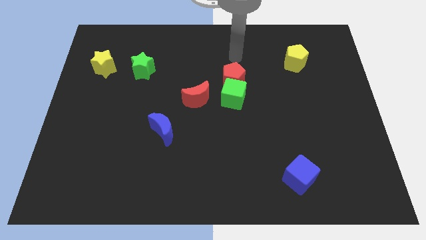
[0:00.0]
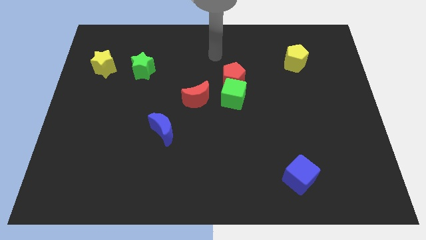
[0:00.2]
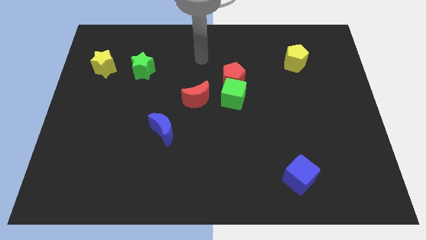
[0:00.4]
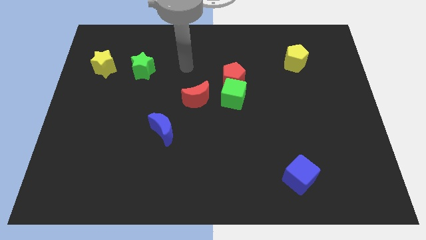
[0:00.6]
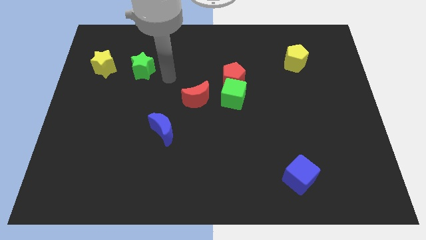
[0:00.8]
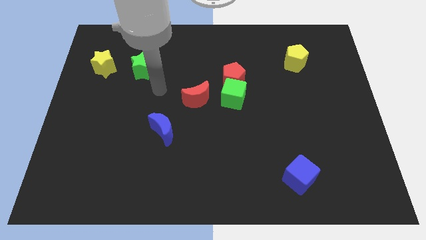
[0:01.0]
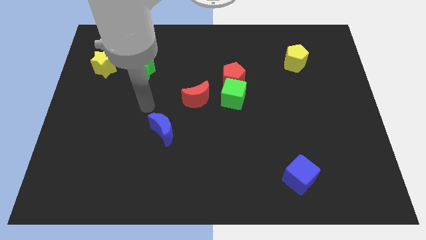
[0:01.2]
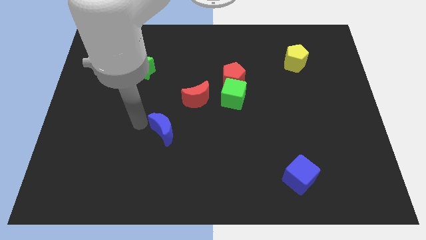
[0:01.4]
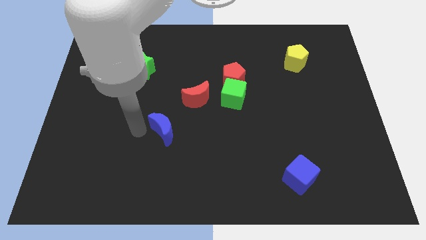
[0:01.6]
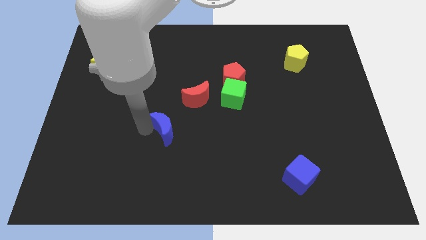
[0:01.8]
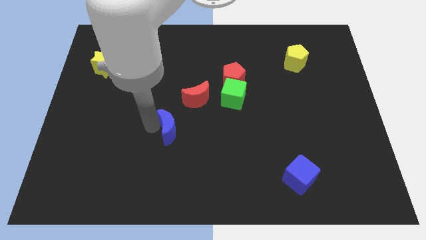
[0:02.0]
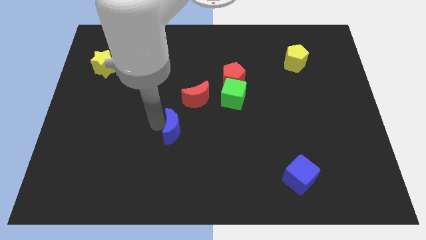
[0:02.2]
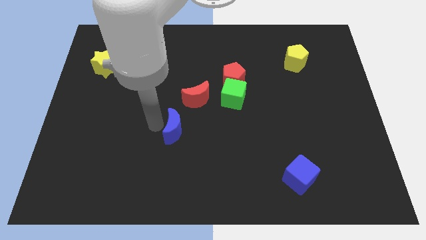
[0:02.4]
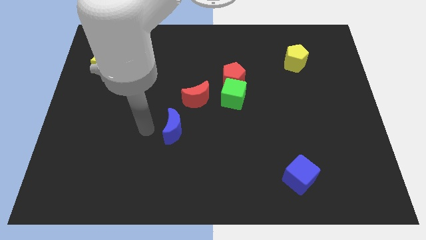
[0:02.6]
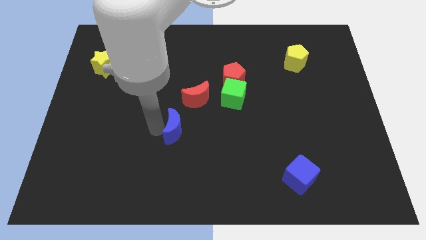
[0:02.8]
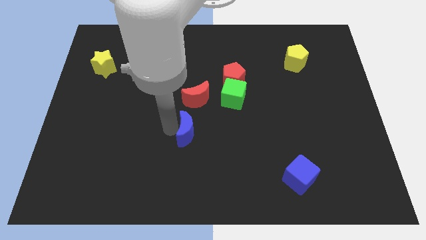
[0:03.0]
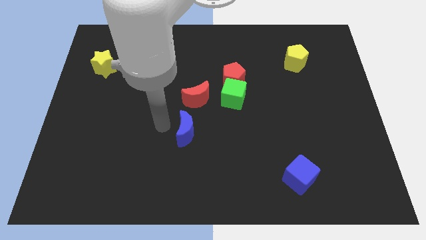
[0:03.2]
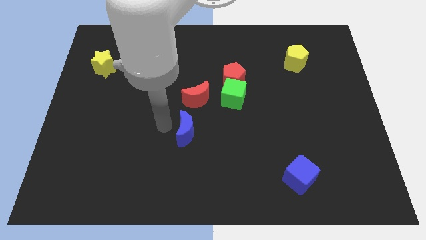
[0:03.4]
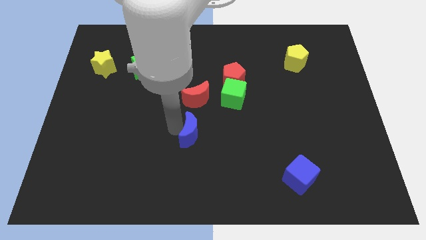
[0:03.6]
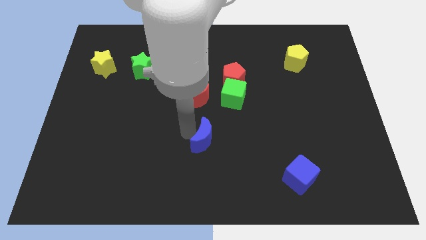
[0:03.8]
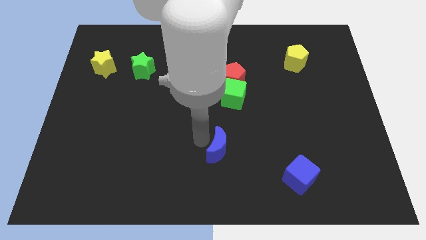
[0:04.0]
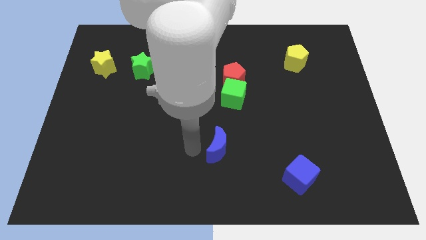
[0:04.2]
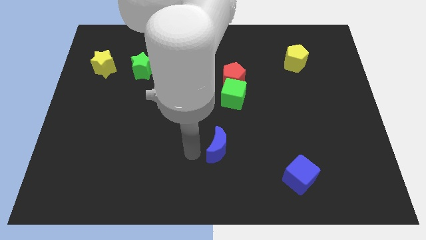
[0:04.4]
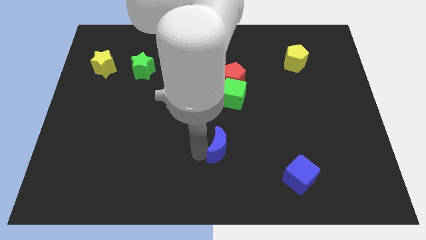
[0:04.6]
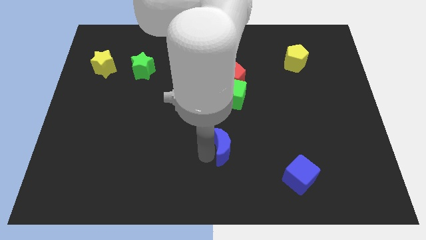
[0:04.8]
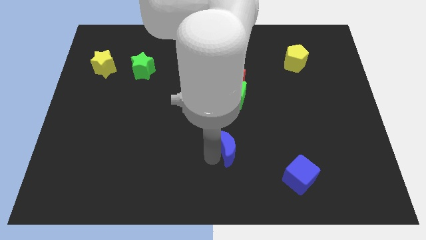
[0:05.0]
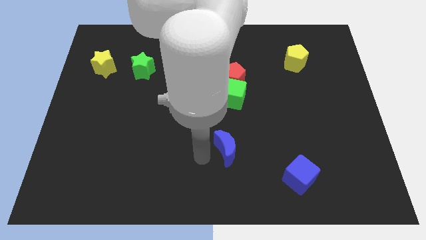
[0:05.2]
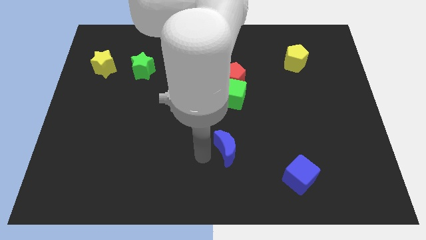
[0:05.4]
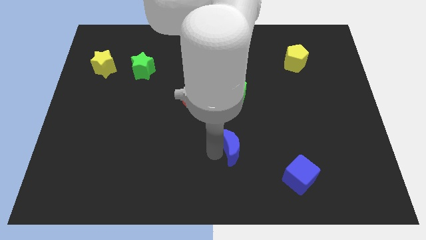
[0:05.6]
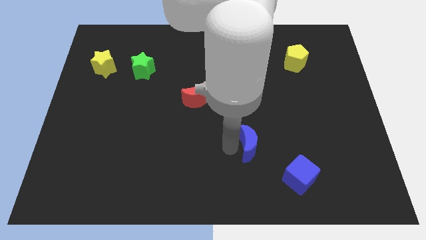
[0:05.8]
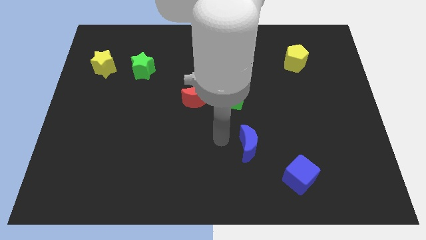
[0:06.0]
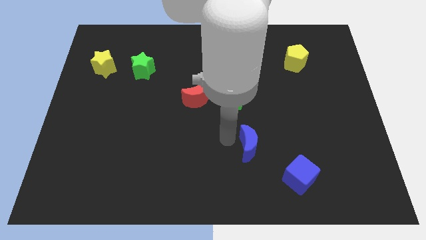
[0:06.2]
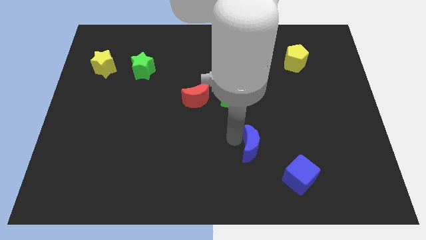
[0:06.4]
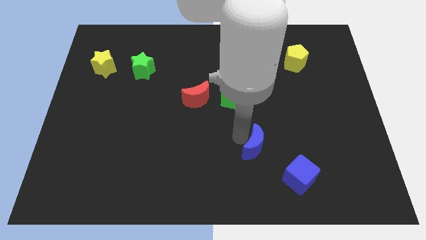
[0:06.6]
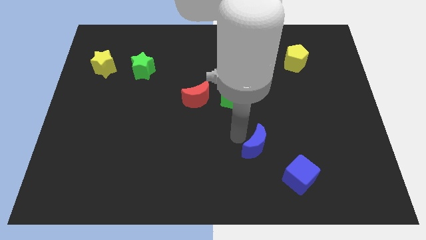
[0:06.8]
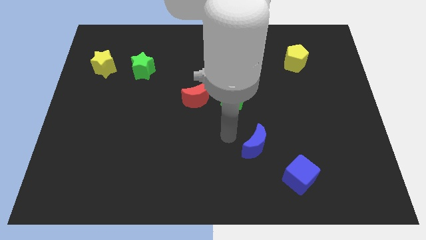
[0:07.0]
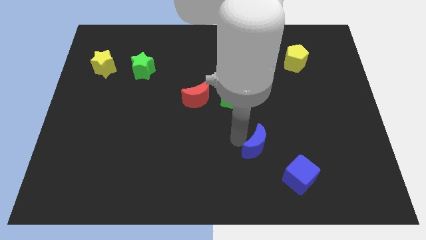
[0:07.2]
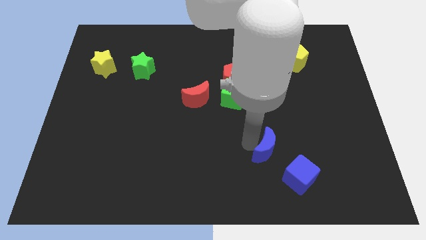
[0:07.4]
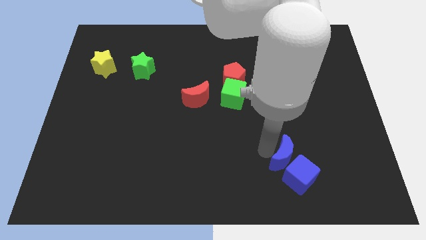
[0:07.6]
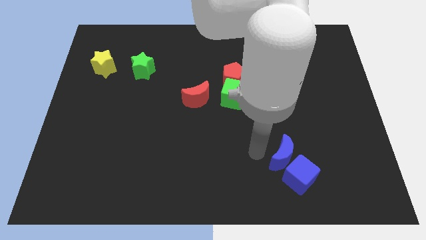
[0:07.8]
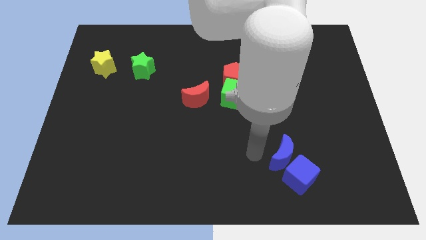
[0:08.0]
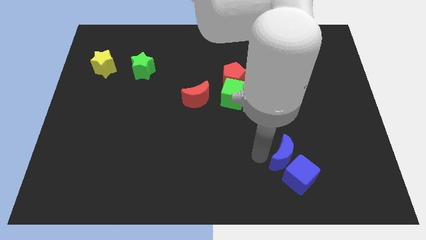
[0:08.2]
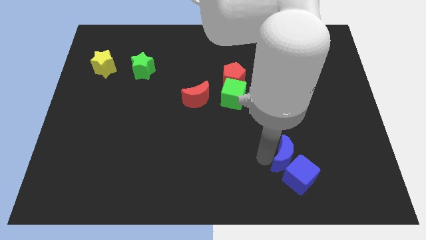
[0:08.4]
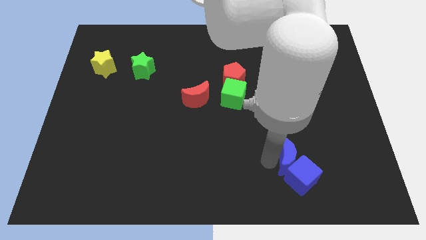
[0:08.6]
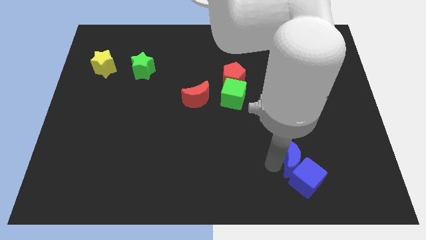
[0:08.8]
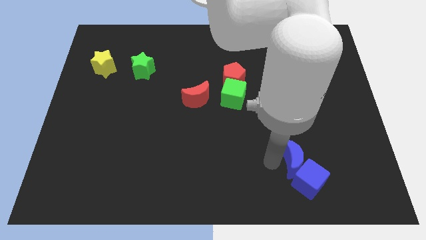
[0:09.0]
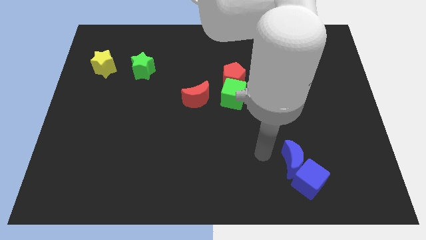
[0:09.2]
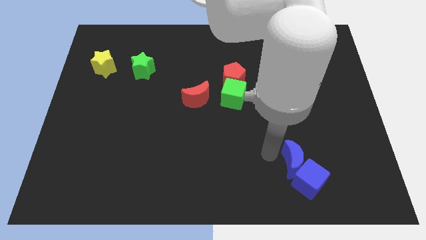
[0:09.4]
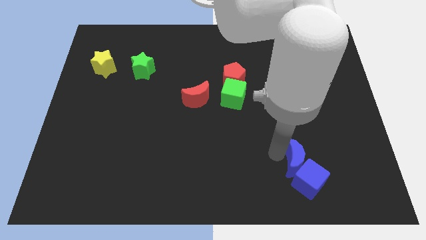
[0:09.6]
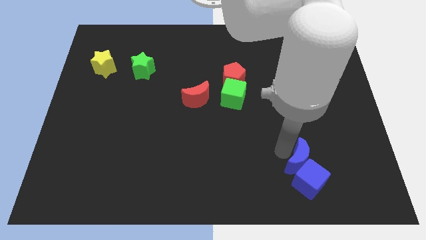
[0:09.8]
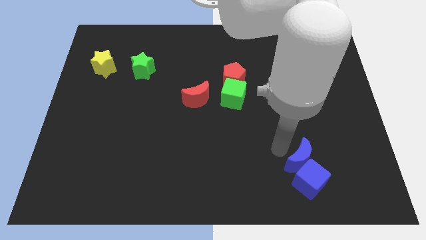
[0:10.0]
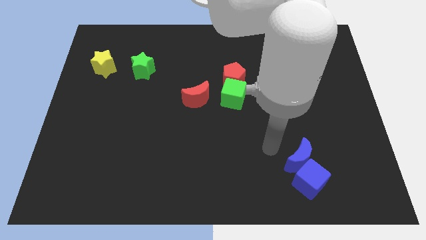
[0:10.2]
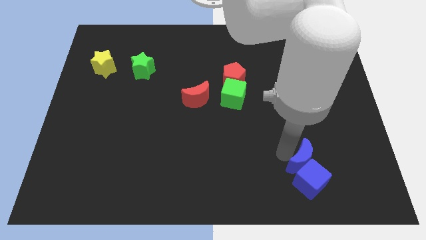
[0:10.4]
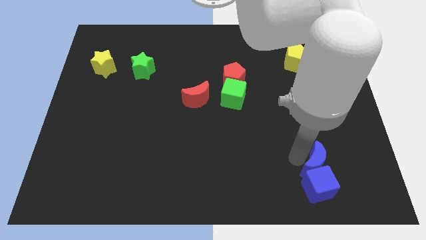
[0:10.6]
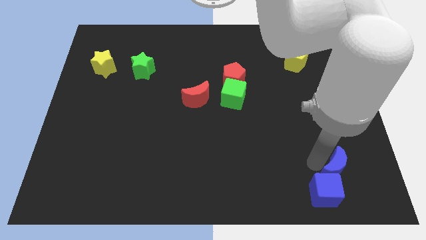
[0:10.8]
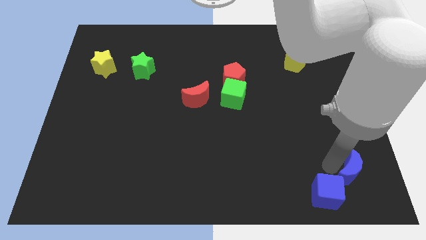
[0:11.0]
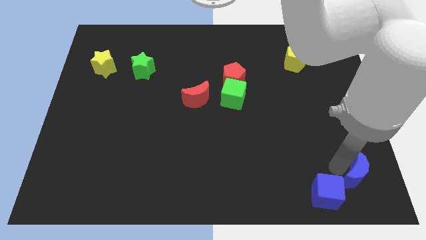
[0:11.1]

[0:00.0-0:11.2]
slide the blue moon to the lower right corner

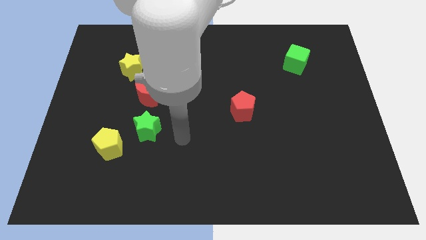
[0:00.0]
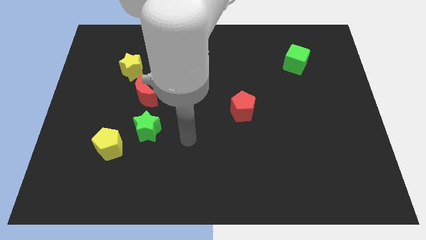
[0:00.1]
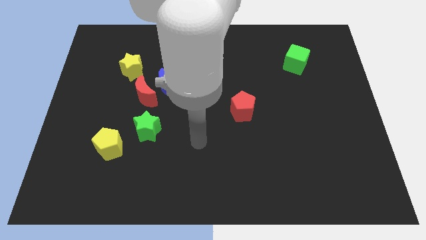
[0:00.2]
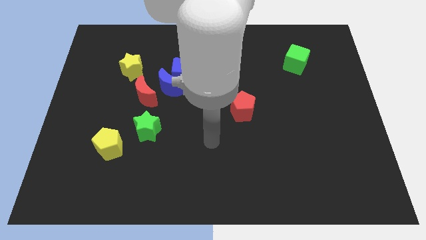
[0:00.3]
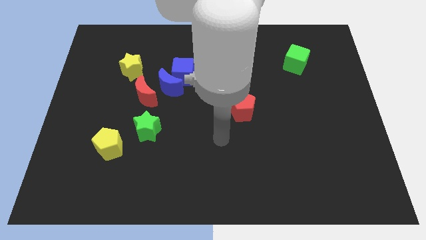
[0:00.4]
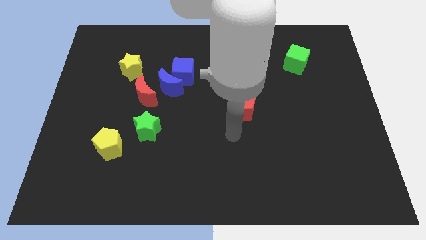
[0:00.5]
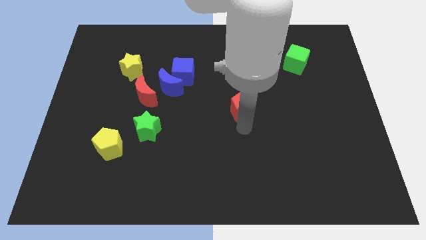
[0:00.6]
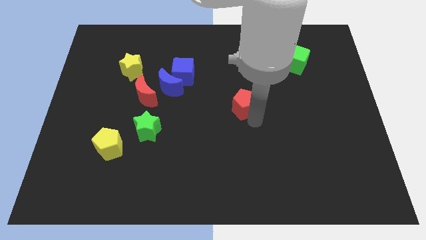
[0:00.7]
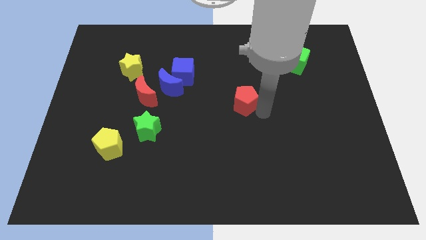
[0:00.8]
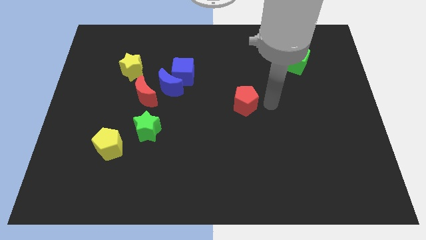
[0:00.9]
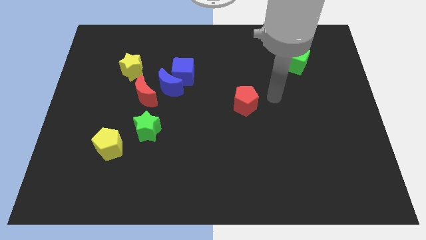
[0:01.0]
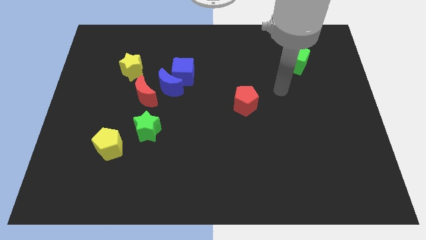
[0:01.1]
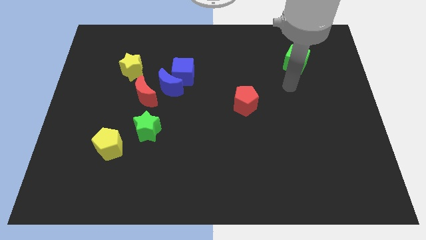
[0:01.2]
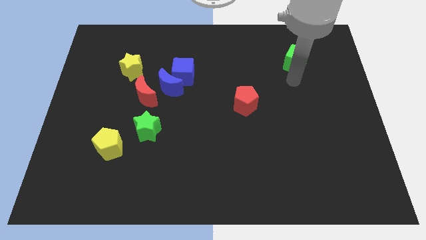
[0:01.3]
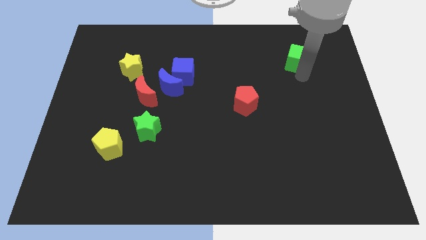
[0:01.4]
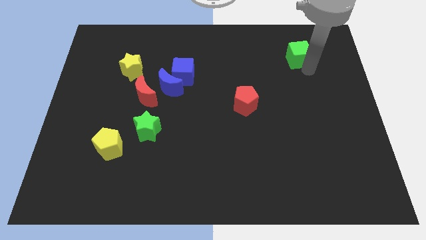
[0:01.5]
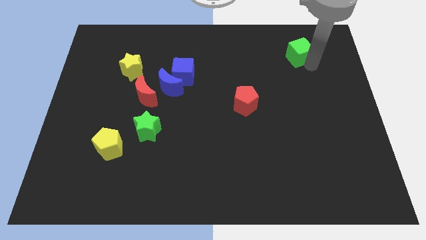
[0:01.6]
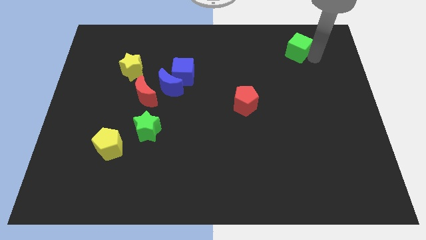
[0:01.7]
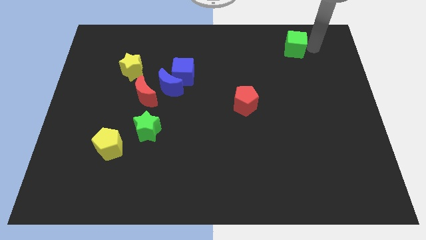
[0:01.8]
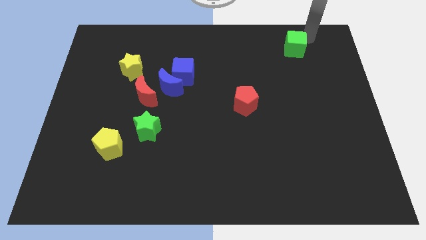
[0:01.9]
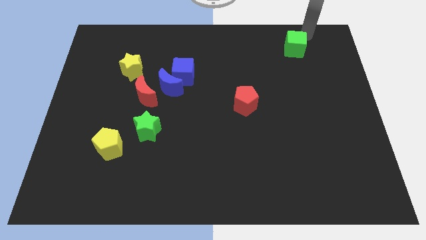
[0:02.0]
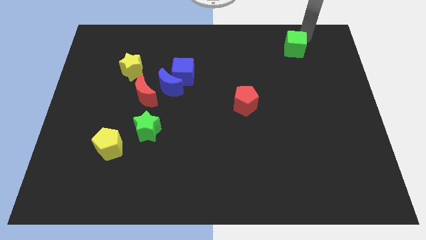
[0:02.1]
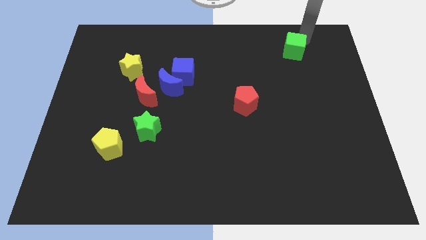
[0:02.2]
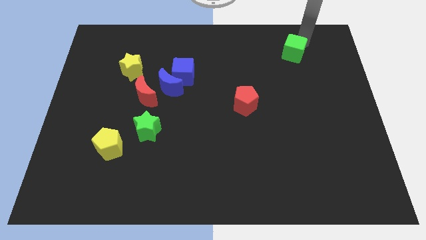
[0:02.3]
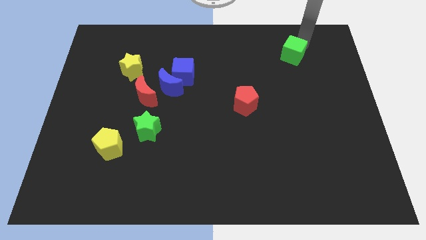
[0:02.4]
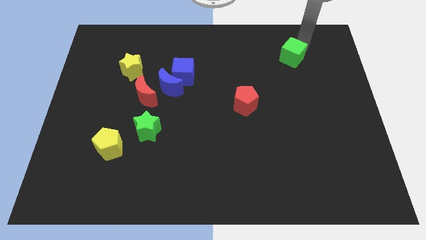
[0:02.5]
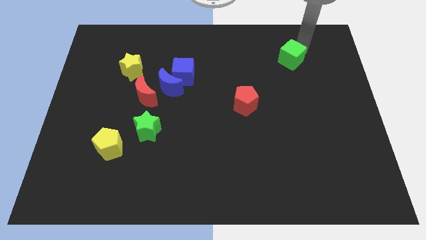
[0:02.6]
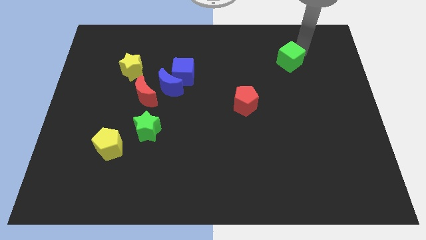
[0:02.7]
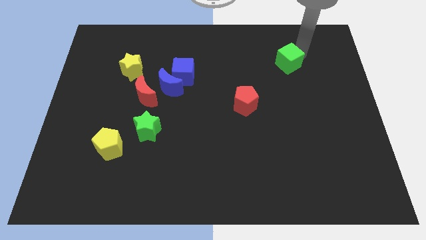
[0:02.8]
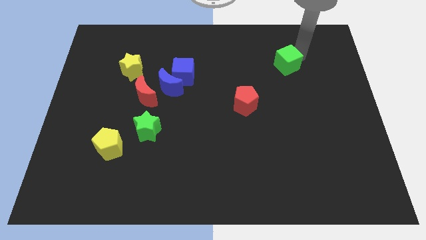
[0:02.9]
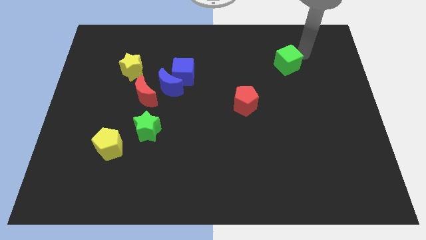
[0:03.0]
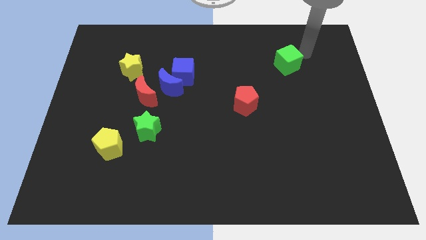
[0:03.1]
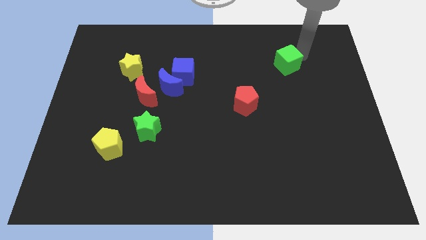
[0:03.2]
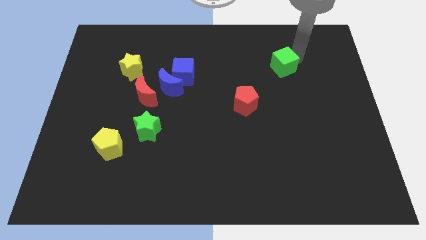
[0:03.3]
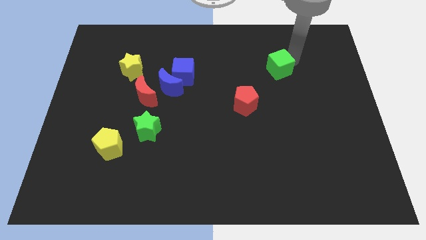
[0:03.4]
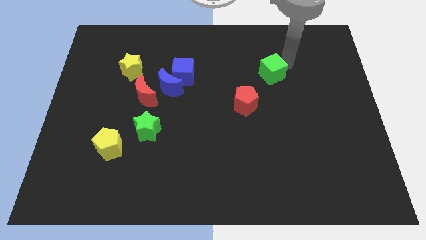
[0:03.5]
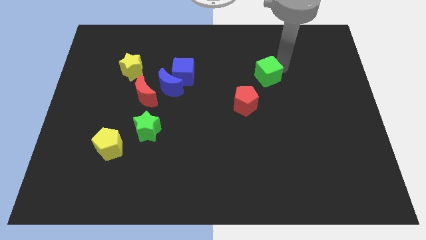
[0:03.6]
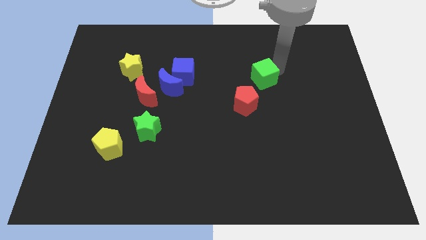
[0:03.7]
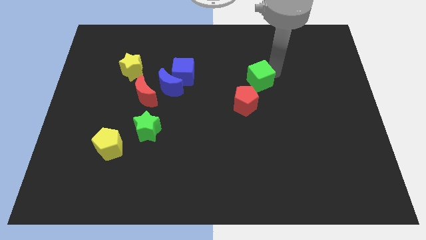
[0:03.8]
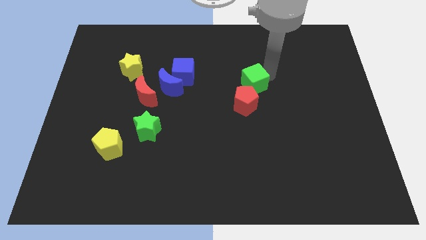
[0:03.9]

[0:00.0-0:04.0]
push the green cube to the center
